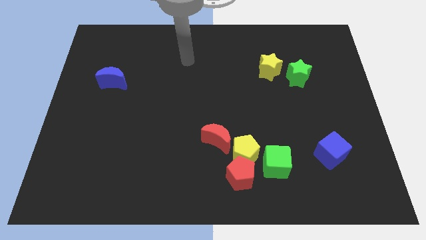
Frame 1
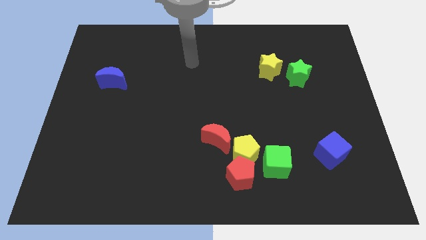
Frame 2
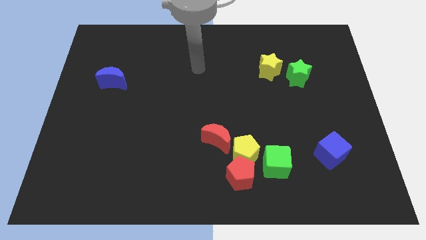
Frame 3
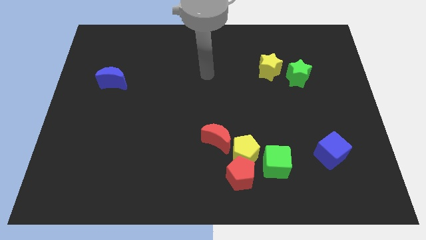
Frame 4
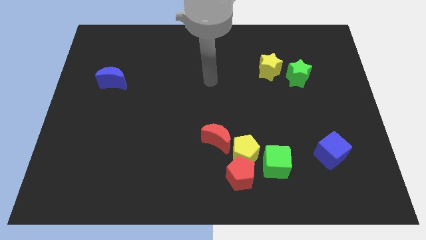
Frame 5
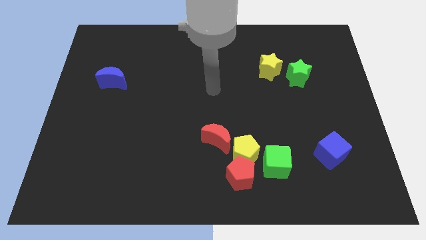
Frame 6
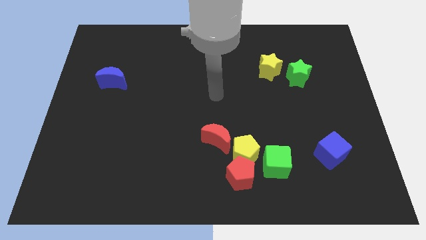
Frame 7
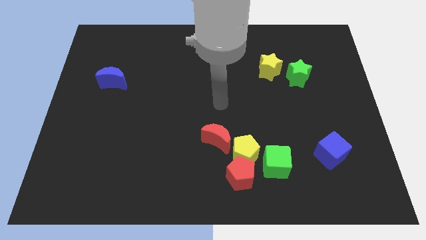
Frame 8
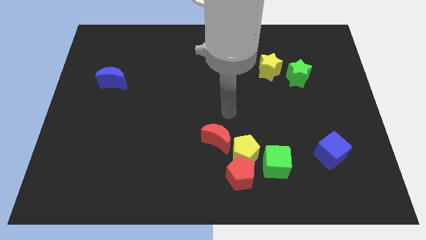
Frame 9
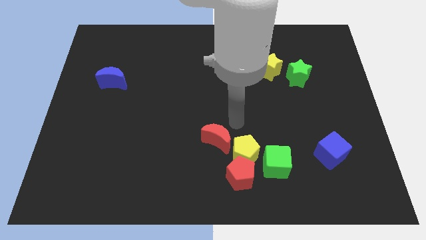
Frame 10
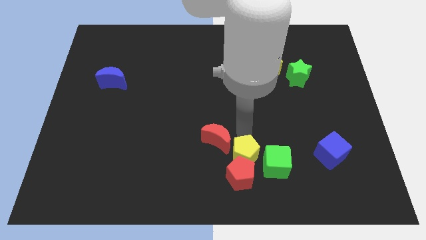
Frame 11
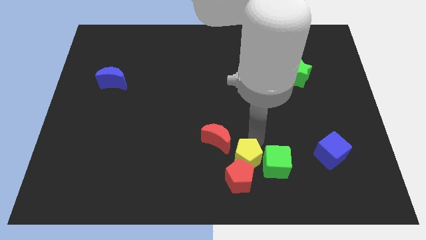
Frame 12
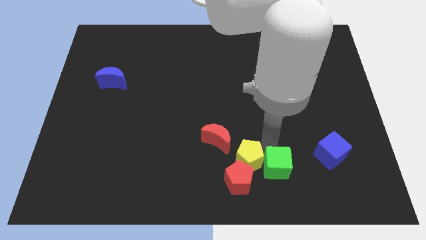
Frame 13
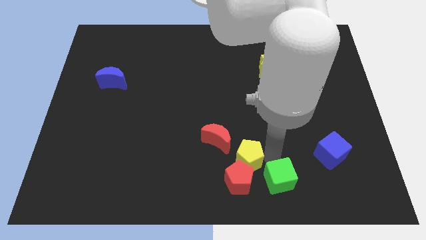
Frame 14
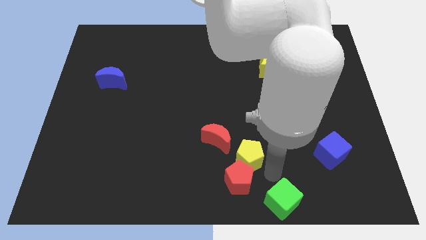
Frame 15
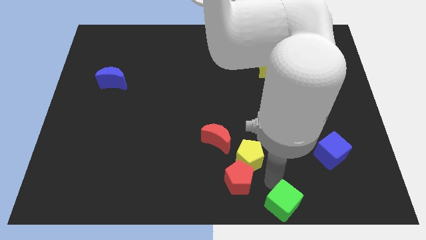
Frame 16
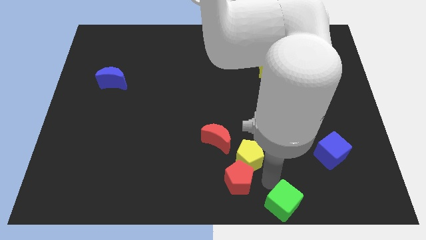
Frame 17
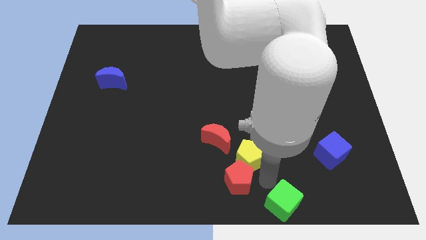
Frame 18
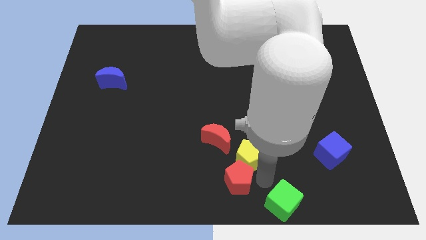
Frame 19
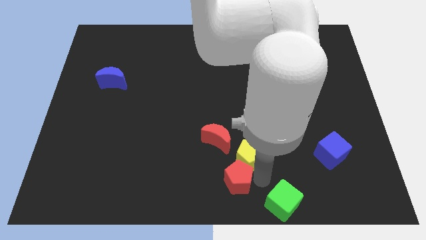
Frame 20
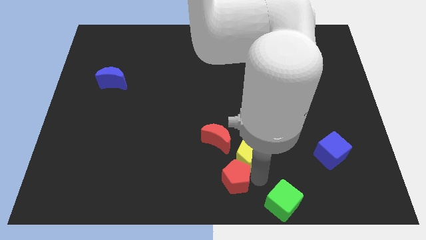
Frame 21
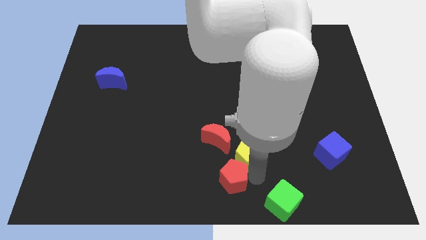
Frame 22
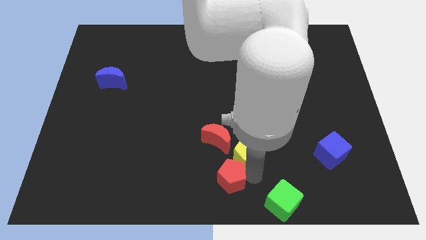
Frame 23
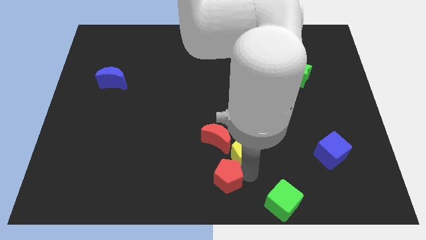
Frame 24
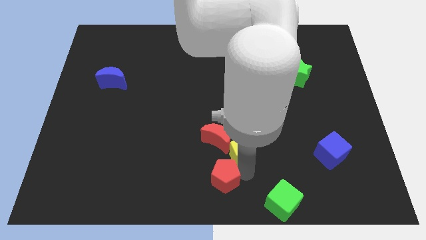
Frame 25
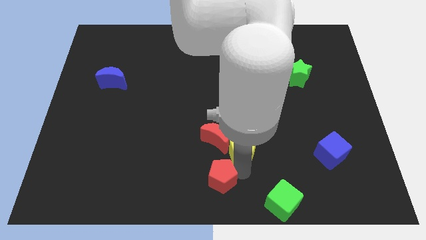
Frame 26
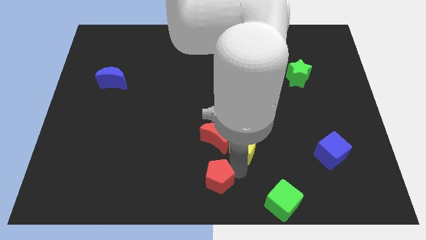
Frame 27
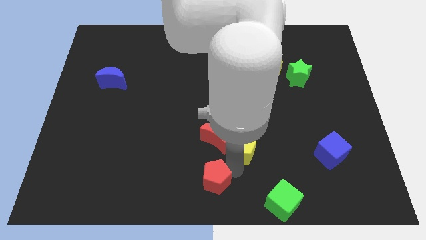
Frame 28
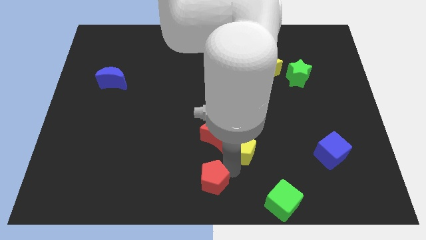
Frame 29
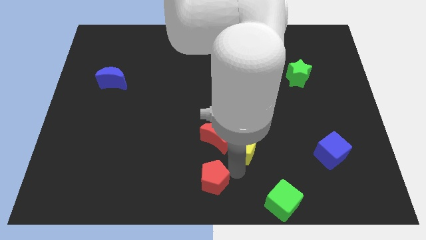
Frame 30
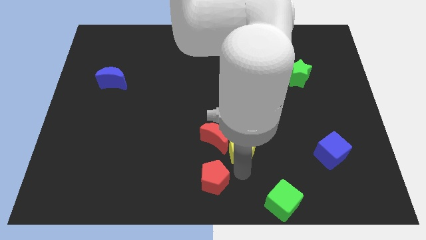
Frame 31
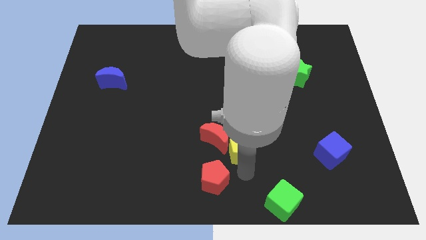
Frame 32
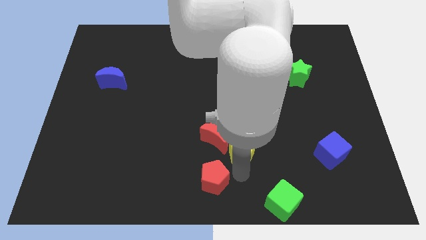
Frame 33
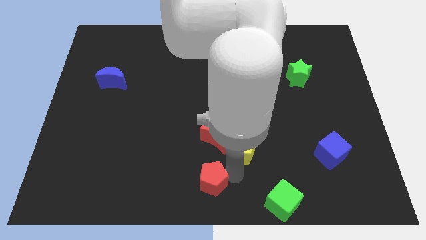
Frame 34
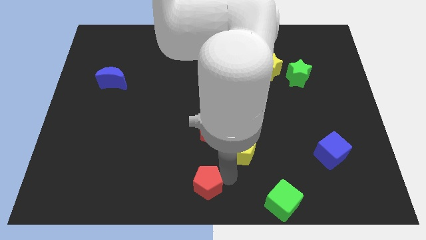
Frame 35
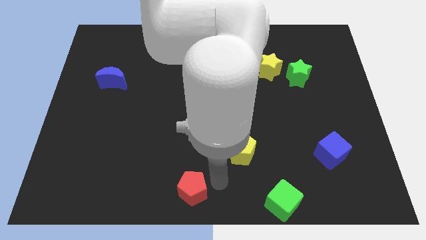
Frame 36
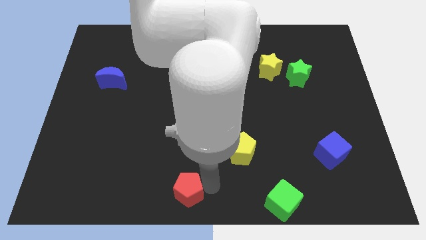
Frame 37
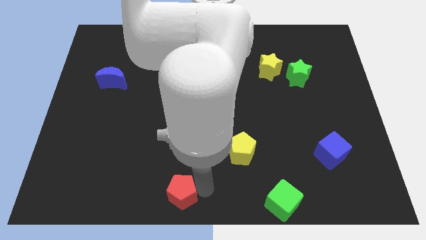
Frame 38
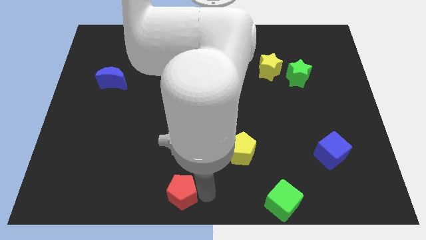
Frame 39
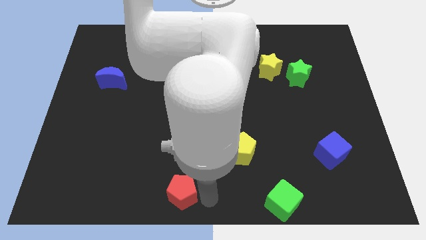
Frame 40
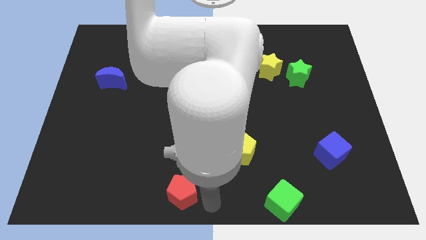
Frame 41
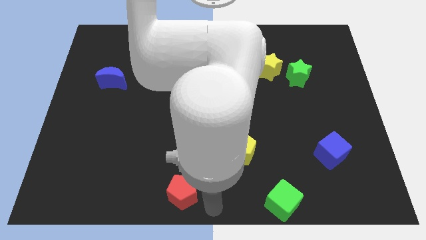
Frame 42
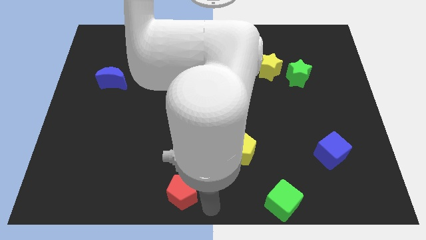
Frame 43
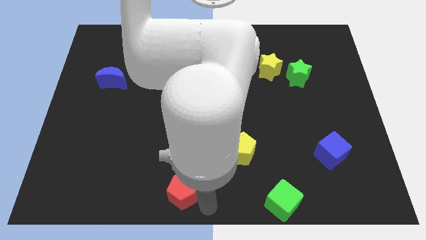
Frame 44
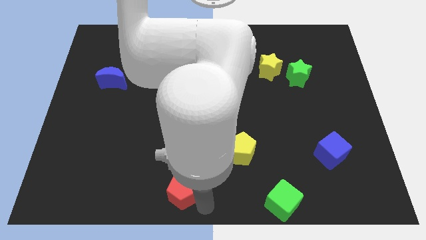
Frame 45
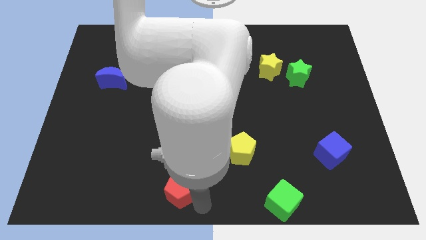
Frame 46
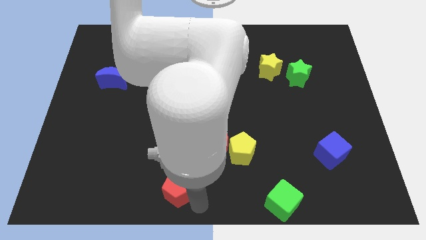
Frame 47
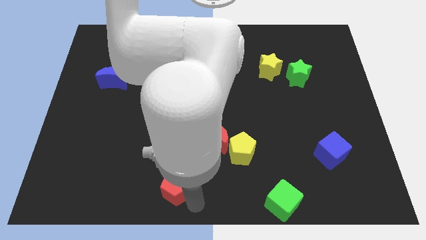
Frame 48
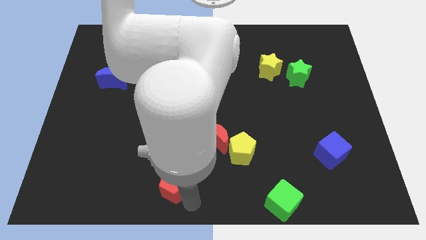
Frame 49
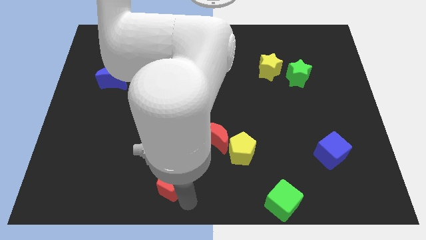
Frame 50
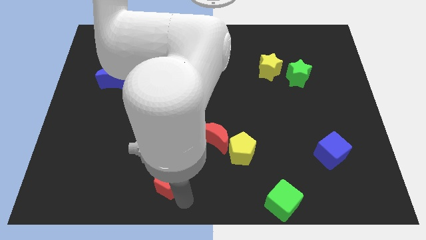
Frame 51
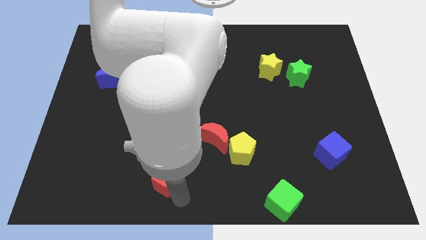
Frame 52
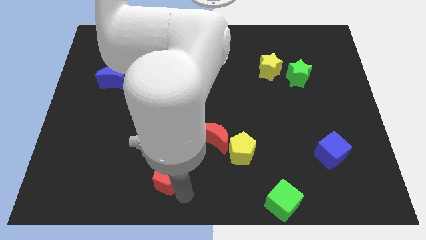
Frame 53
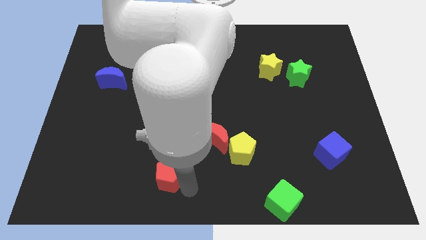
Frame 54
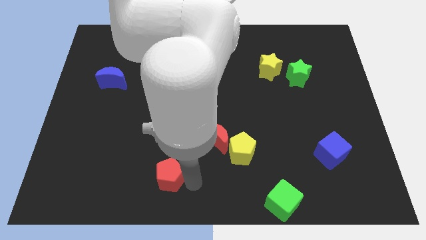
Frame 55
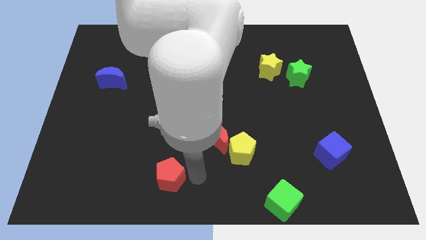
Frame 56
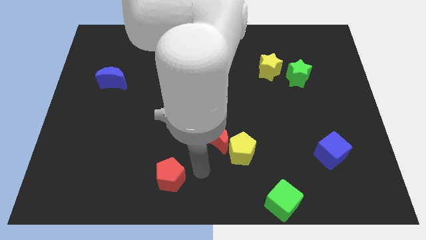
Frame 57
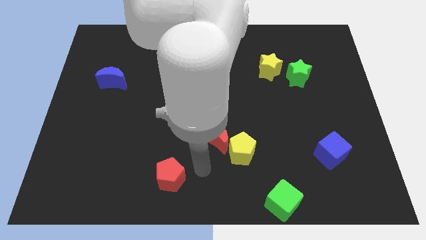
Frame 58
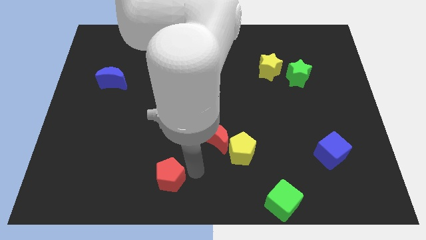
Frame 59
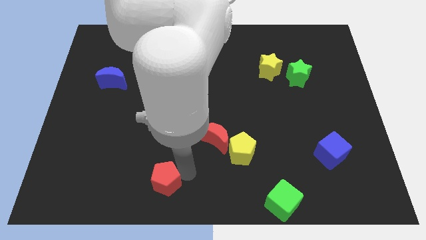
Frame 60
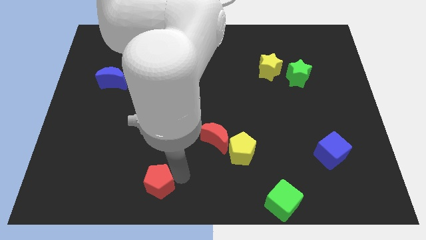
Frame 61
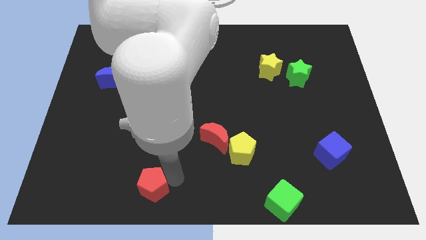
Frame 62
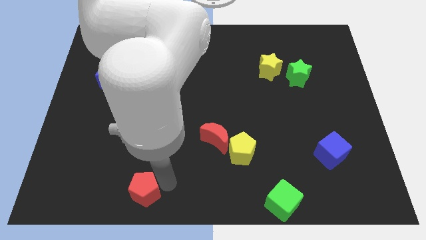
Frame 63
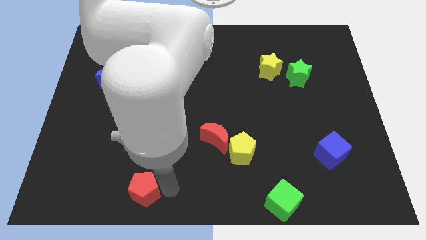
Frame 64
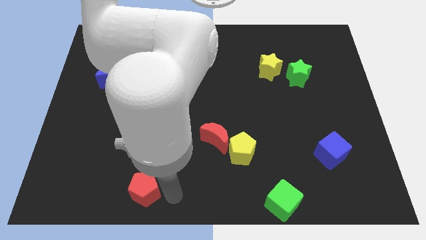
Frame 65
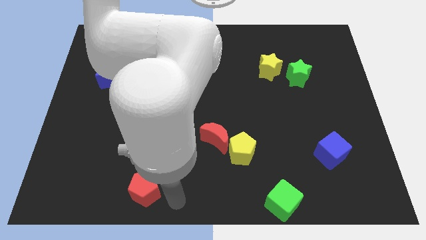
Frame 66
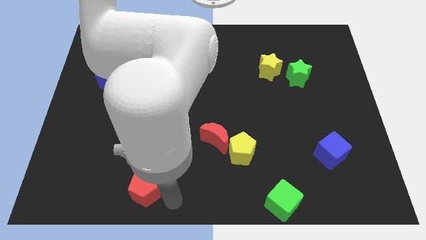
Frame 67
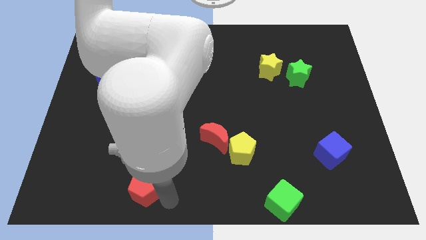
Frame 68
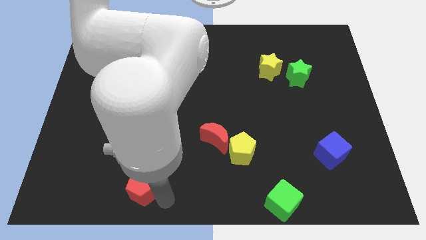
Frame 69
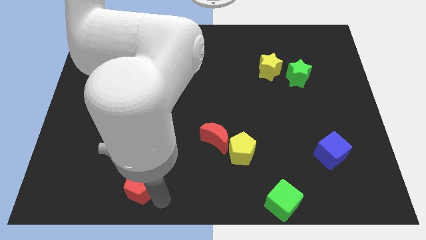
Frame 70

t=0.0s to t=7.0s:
slide the red pentagon to the left

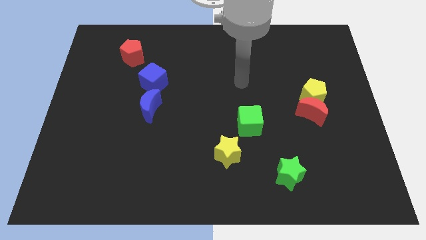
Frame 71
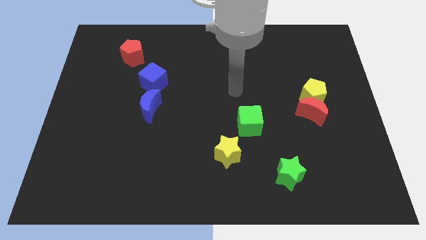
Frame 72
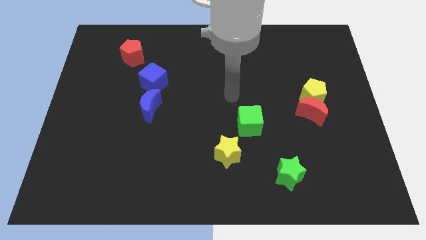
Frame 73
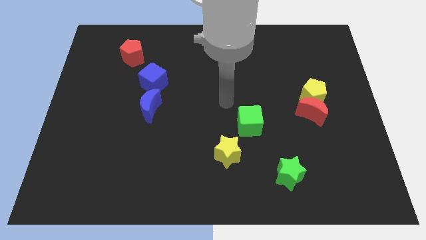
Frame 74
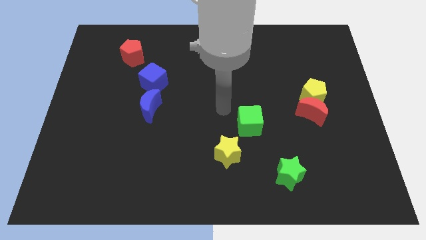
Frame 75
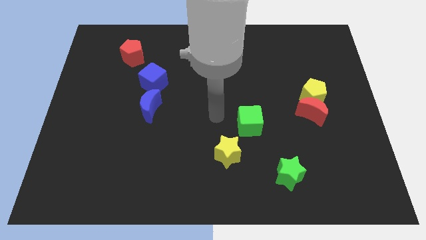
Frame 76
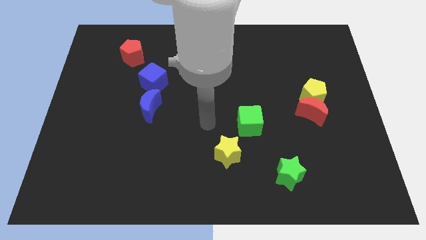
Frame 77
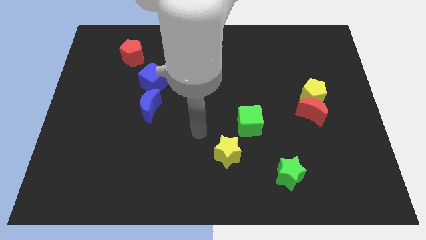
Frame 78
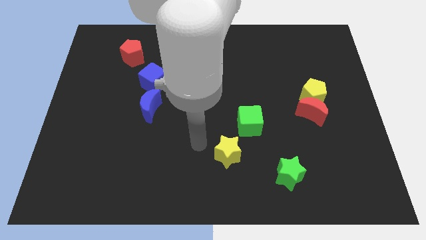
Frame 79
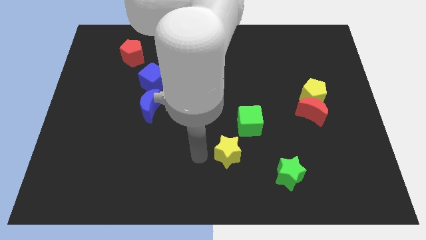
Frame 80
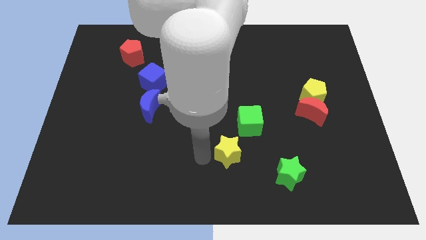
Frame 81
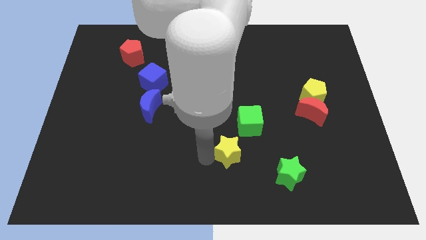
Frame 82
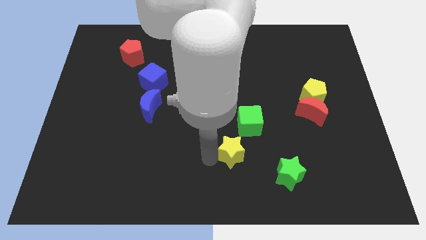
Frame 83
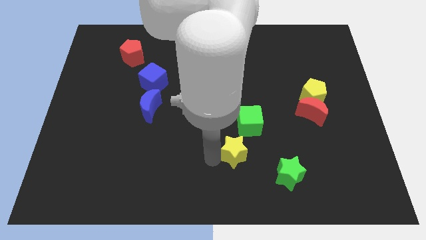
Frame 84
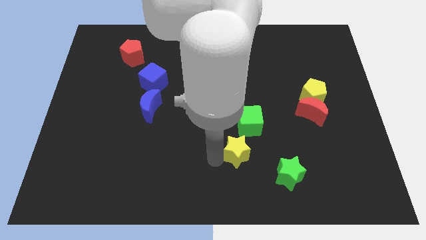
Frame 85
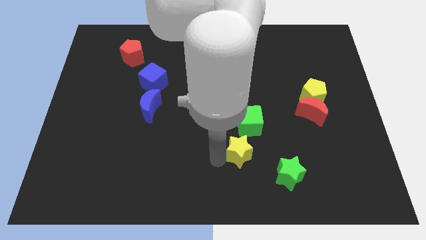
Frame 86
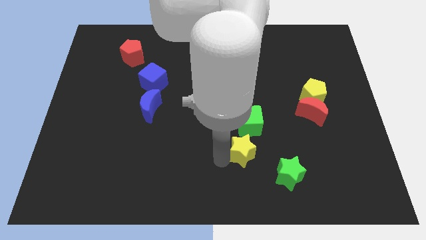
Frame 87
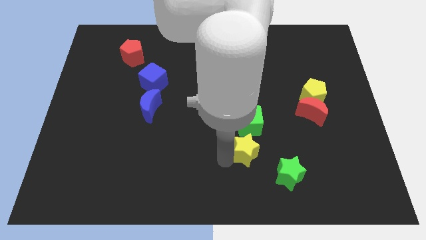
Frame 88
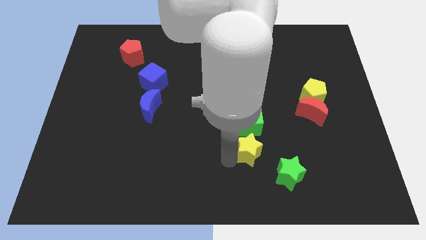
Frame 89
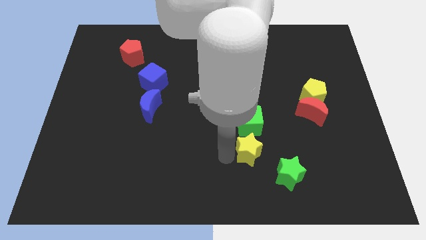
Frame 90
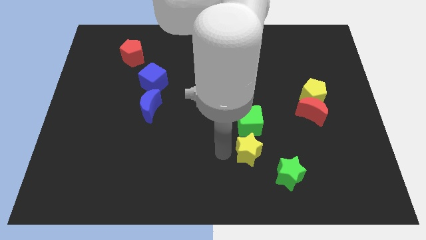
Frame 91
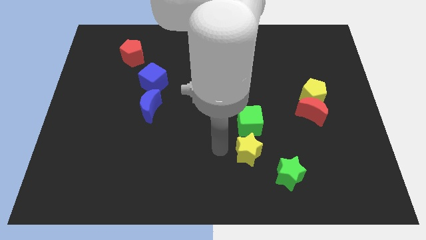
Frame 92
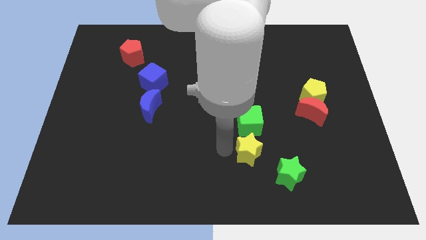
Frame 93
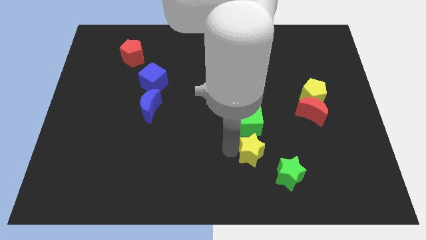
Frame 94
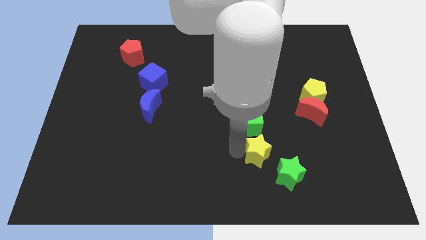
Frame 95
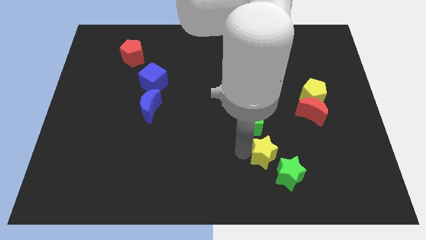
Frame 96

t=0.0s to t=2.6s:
push the yellow star right slightly
